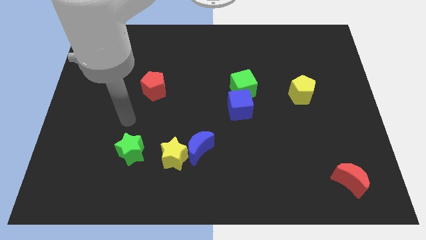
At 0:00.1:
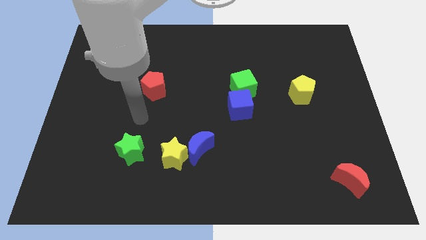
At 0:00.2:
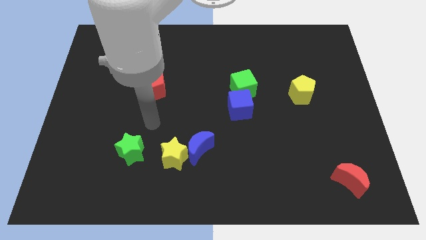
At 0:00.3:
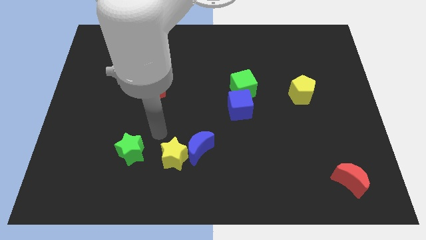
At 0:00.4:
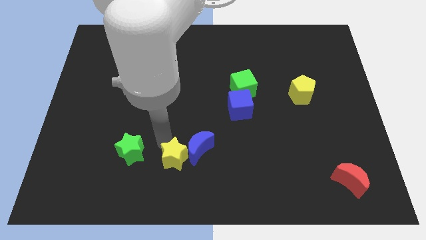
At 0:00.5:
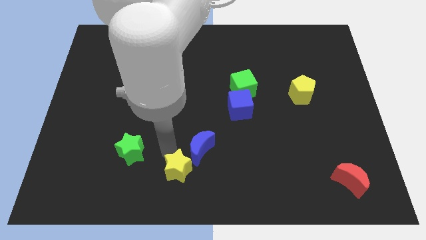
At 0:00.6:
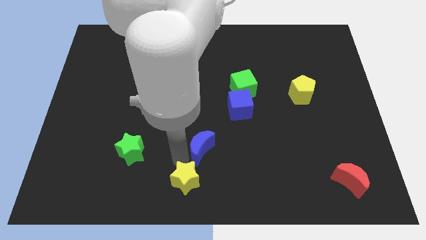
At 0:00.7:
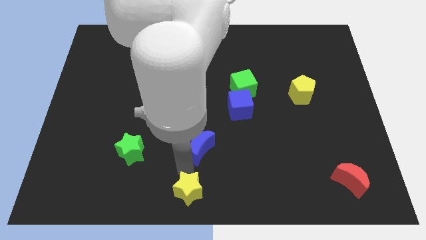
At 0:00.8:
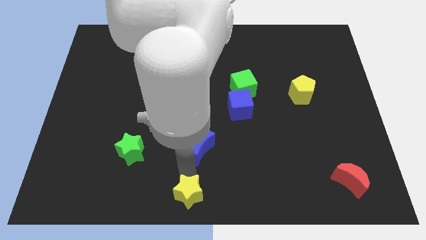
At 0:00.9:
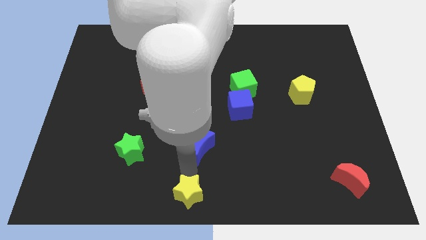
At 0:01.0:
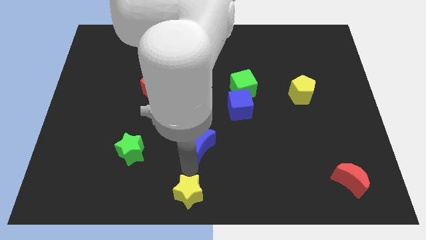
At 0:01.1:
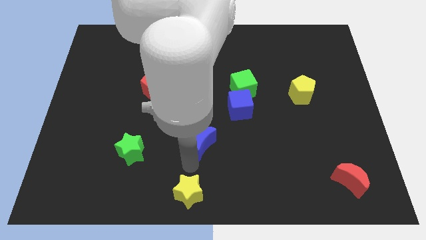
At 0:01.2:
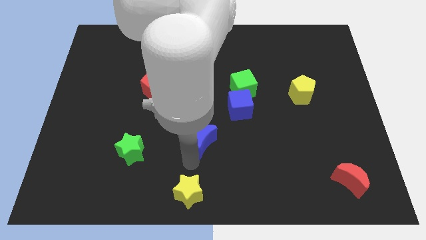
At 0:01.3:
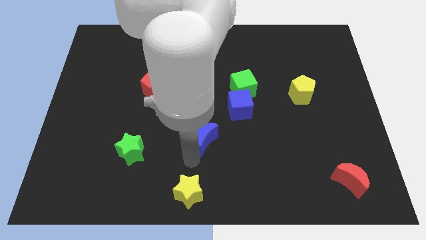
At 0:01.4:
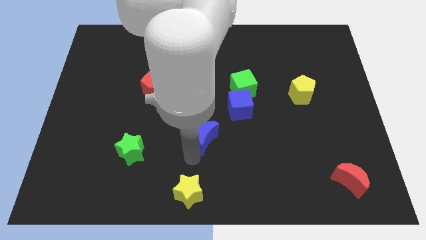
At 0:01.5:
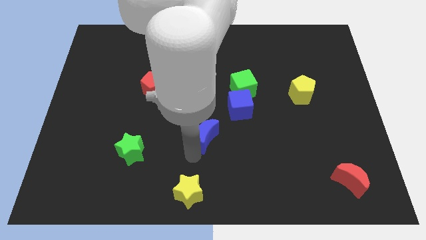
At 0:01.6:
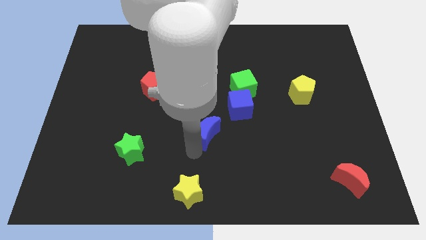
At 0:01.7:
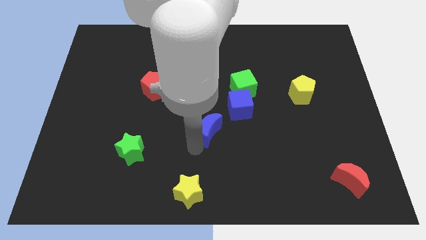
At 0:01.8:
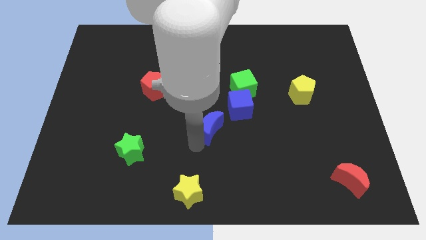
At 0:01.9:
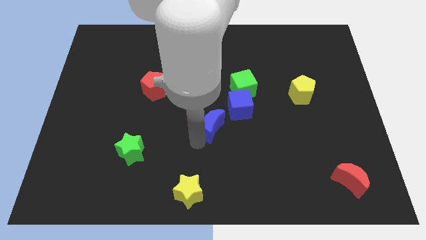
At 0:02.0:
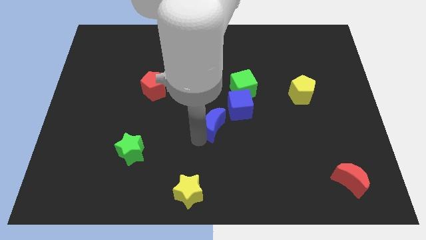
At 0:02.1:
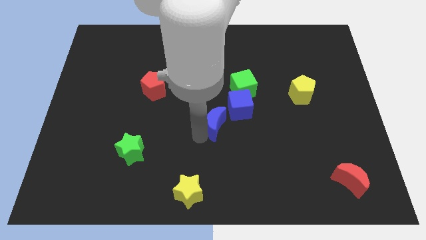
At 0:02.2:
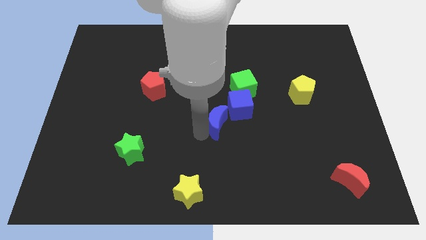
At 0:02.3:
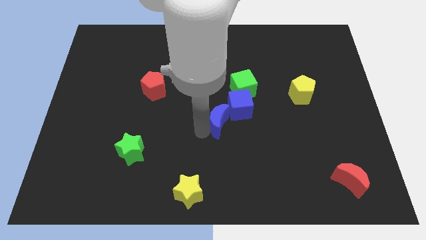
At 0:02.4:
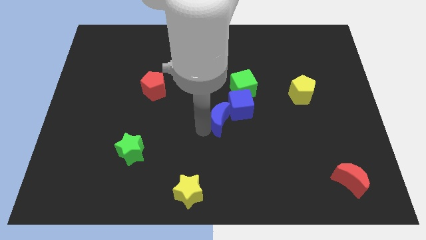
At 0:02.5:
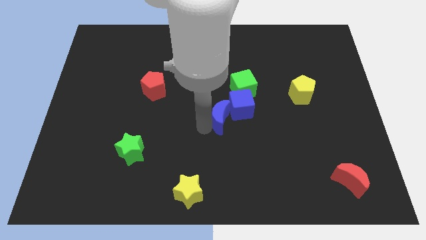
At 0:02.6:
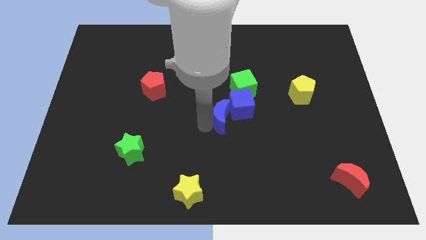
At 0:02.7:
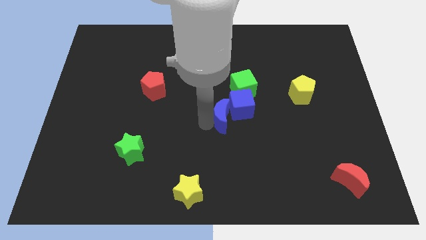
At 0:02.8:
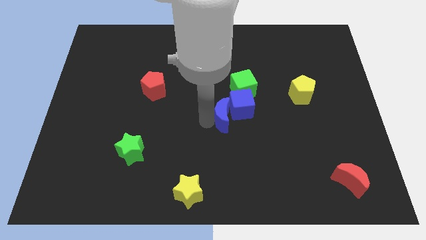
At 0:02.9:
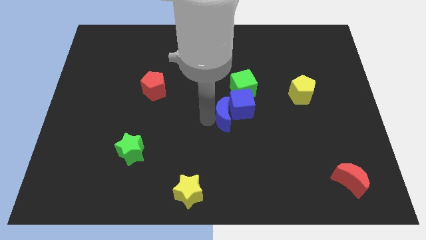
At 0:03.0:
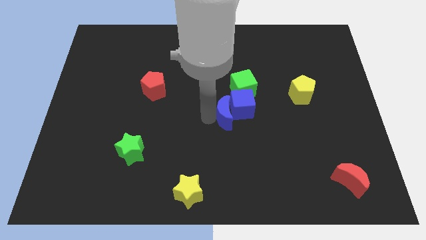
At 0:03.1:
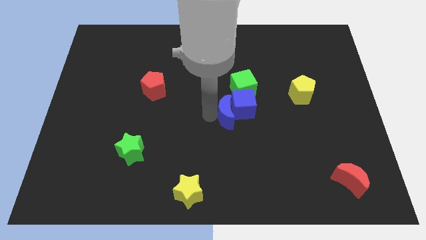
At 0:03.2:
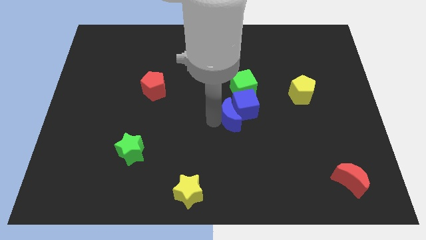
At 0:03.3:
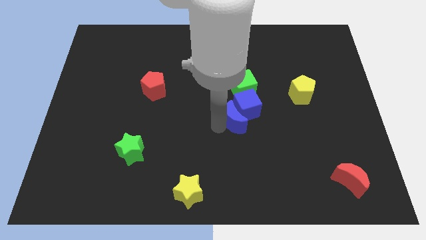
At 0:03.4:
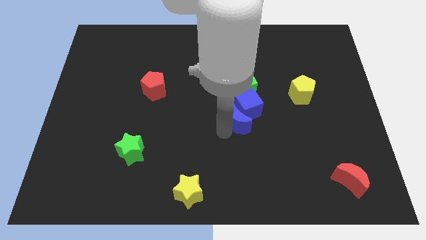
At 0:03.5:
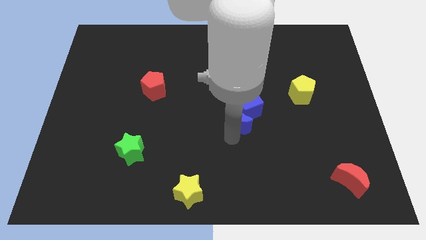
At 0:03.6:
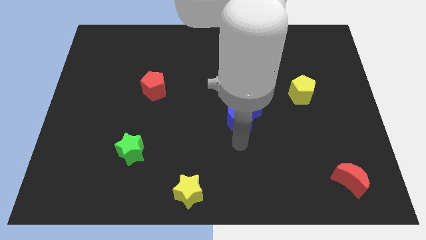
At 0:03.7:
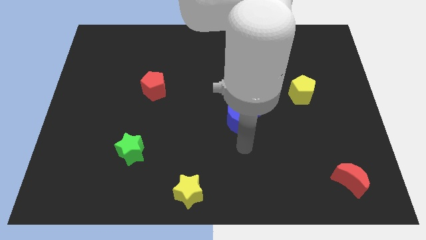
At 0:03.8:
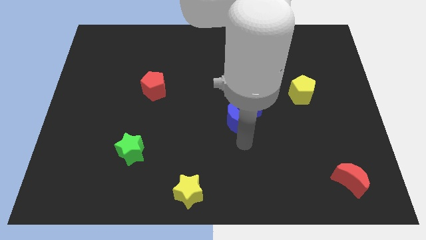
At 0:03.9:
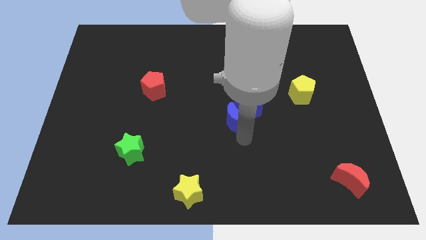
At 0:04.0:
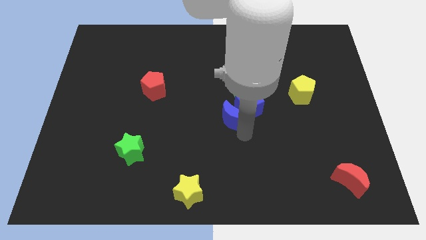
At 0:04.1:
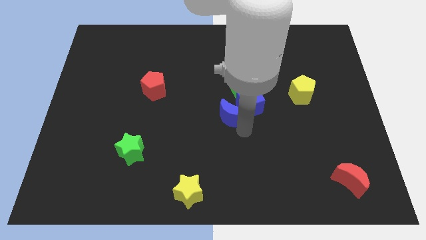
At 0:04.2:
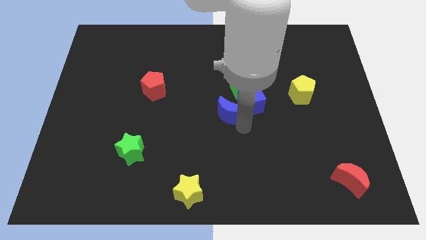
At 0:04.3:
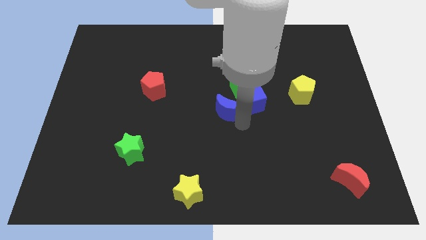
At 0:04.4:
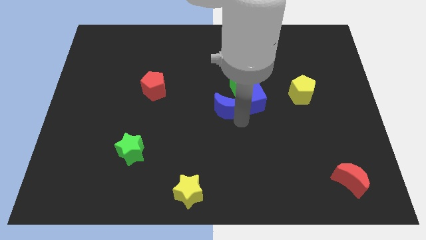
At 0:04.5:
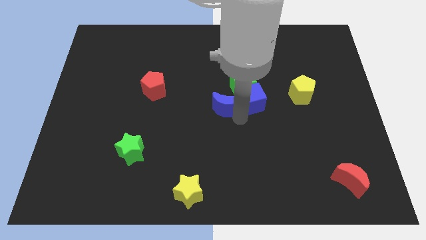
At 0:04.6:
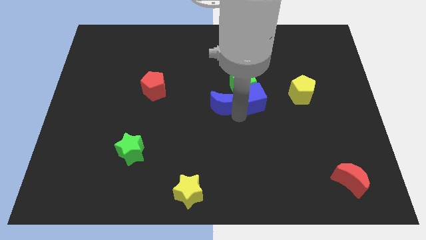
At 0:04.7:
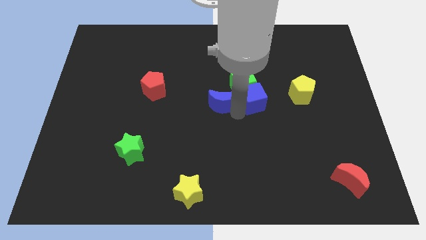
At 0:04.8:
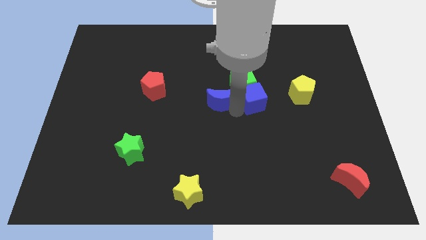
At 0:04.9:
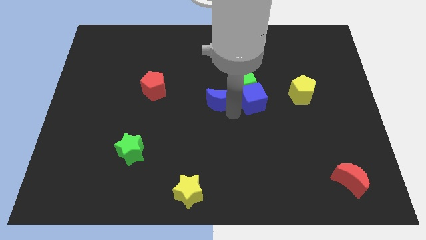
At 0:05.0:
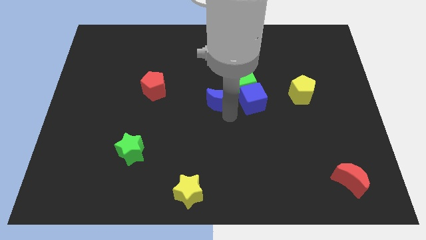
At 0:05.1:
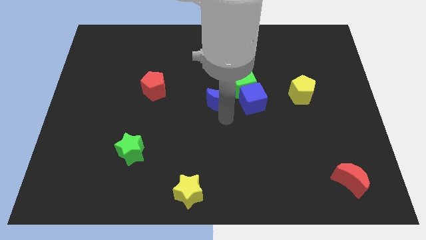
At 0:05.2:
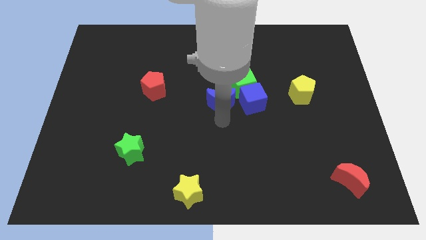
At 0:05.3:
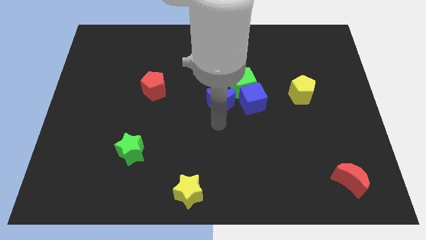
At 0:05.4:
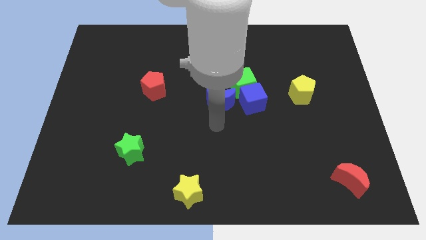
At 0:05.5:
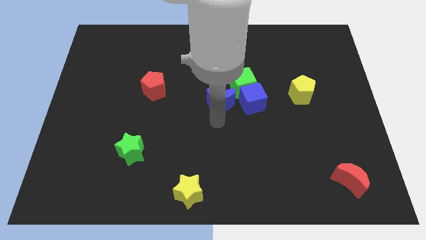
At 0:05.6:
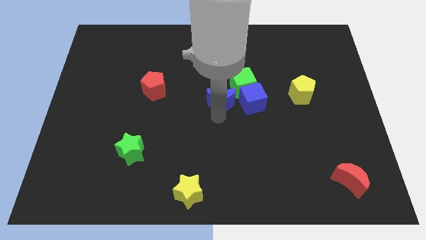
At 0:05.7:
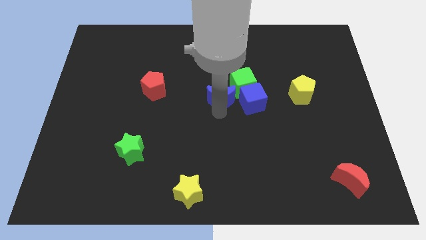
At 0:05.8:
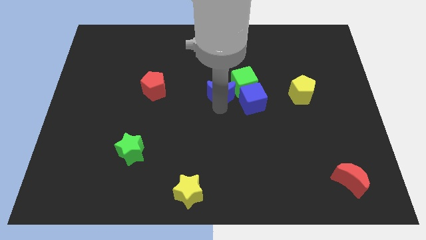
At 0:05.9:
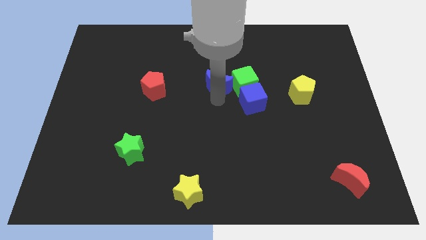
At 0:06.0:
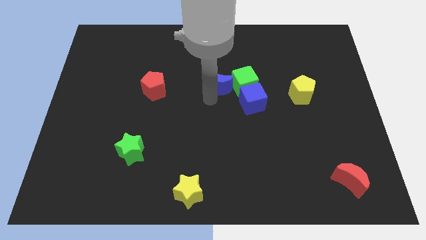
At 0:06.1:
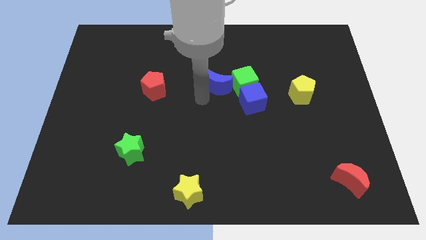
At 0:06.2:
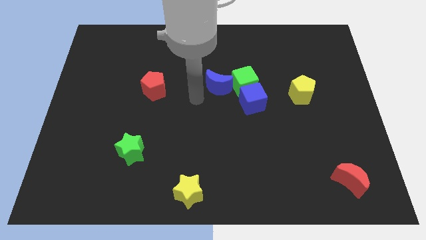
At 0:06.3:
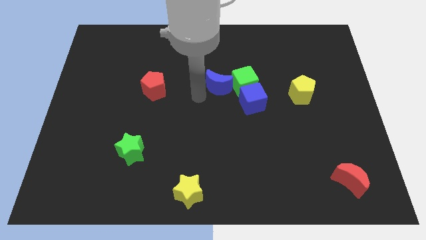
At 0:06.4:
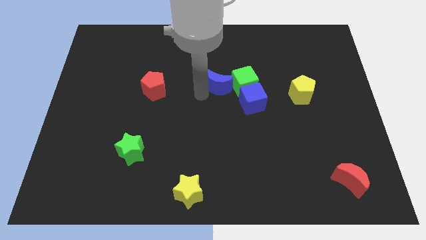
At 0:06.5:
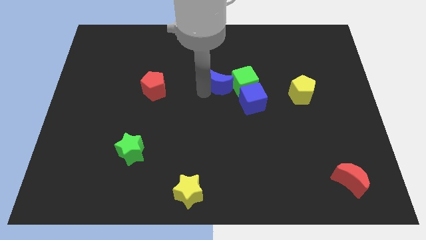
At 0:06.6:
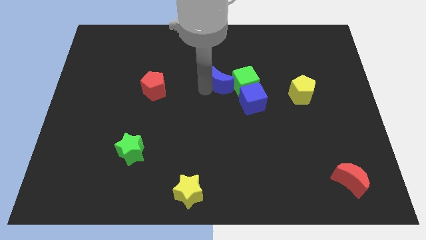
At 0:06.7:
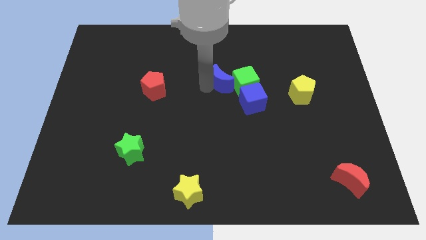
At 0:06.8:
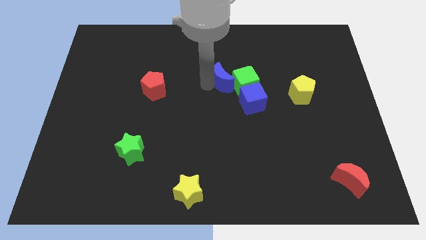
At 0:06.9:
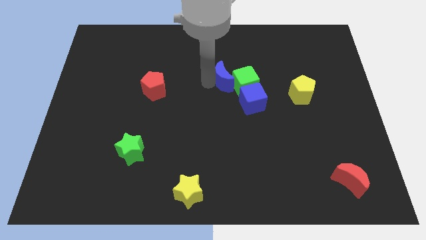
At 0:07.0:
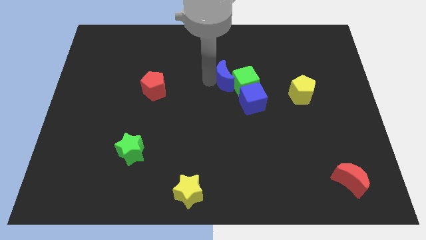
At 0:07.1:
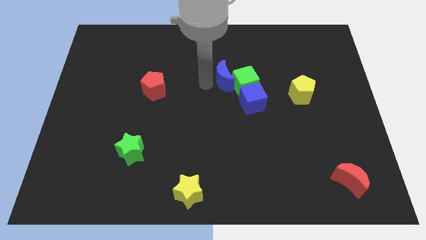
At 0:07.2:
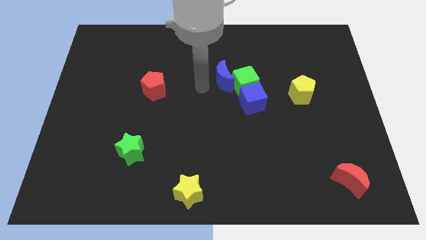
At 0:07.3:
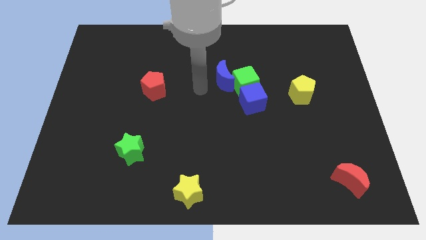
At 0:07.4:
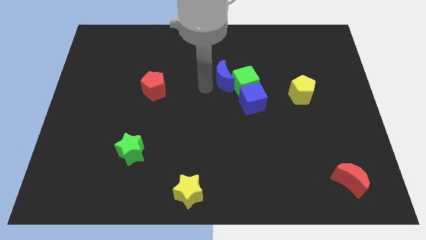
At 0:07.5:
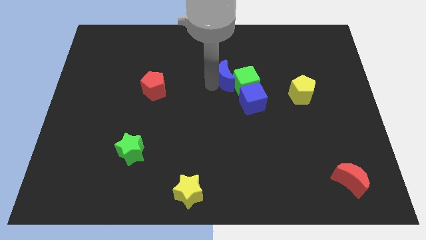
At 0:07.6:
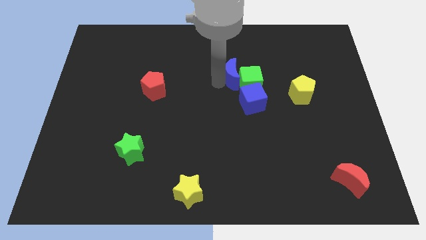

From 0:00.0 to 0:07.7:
put the blue moon to the top side of the blue cube
